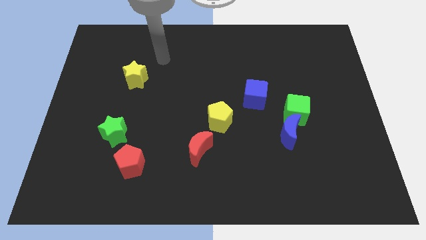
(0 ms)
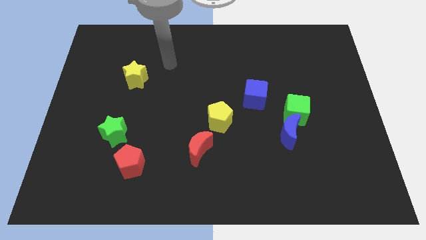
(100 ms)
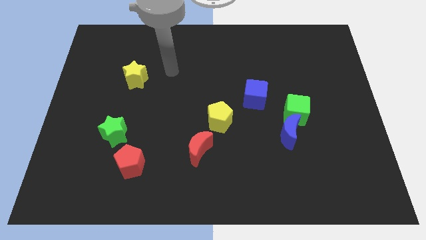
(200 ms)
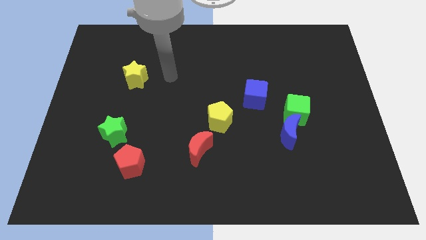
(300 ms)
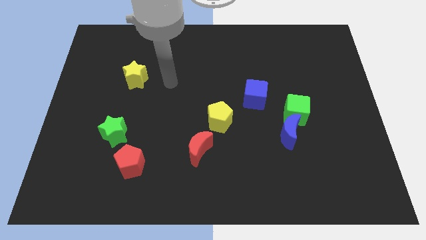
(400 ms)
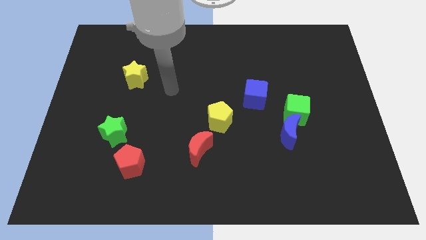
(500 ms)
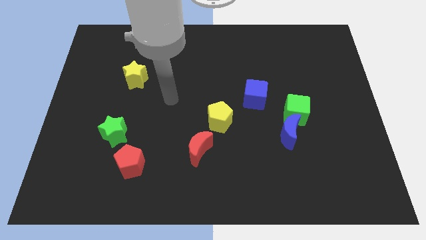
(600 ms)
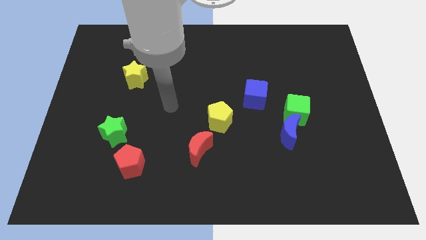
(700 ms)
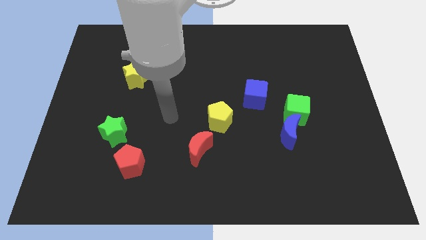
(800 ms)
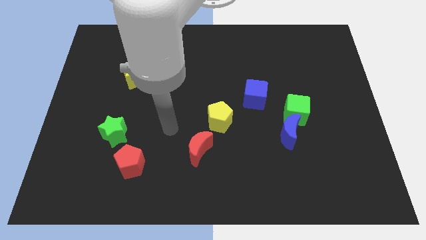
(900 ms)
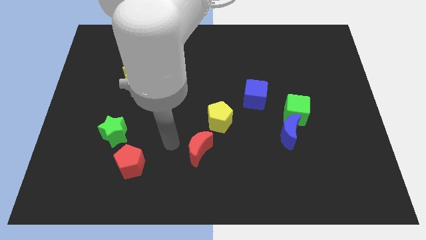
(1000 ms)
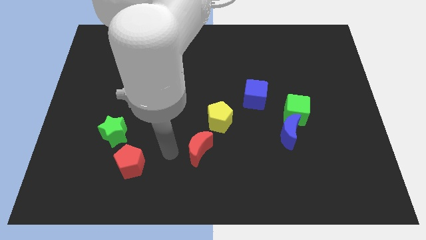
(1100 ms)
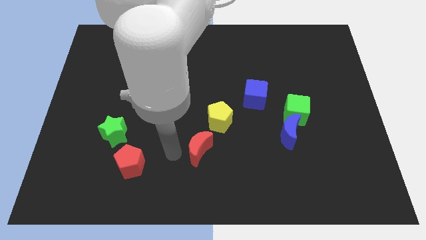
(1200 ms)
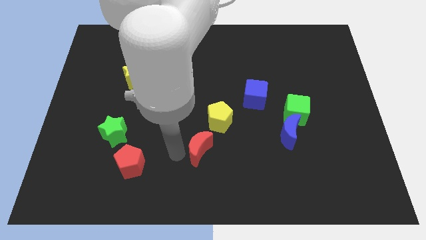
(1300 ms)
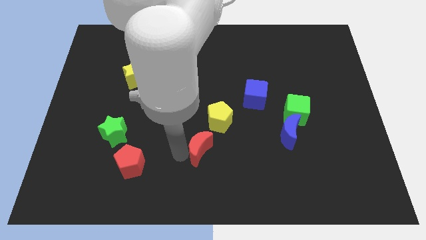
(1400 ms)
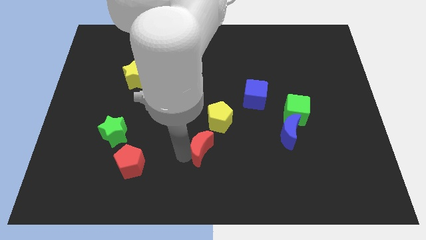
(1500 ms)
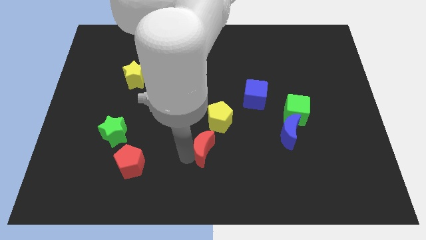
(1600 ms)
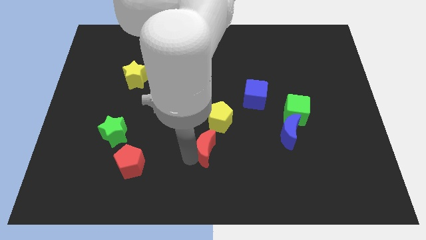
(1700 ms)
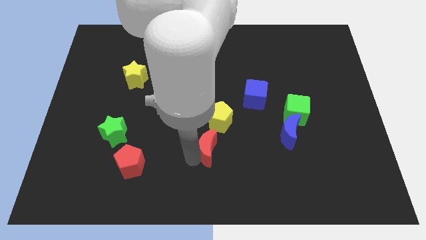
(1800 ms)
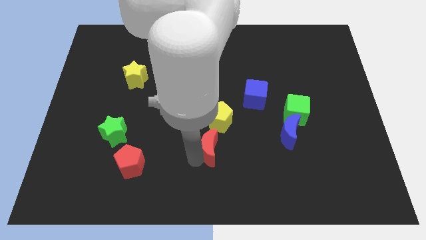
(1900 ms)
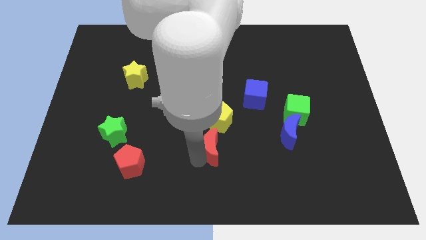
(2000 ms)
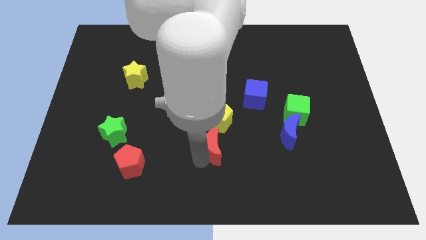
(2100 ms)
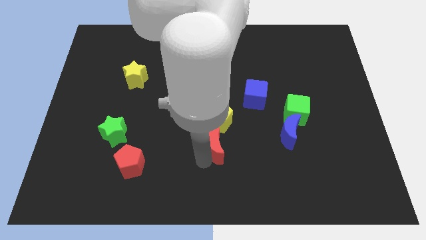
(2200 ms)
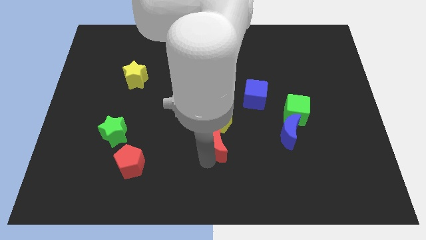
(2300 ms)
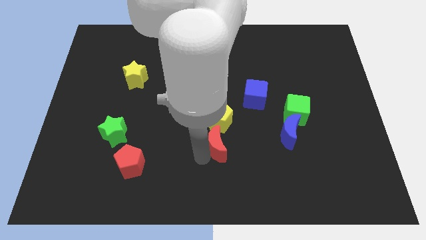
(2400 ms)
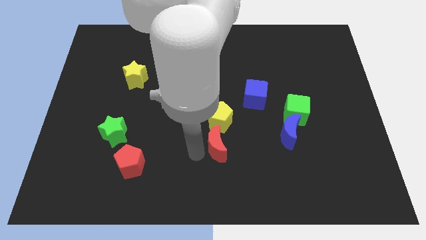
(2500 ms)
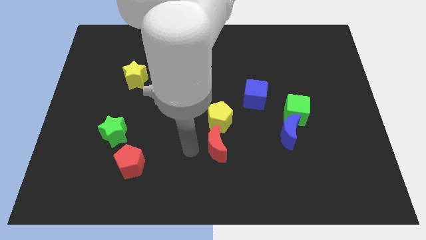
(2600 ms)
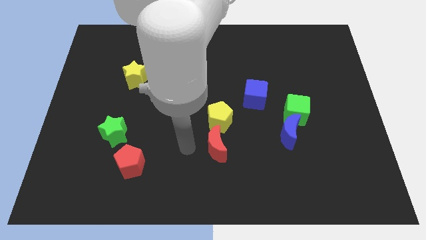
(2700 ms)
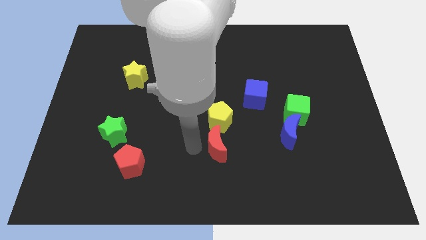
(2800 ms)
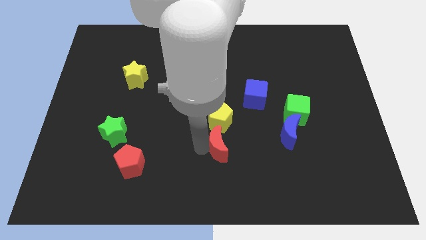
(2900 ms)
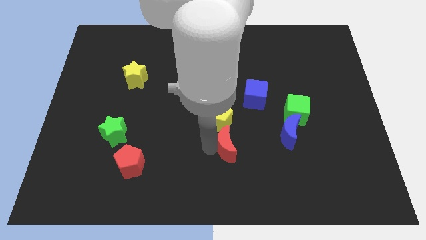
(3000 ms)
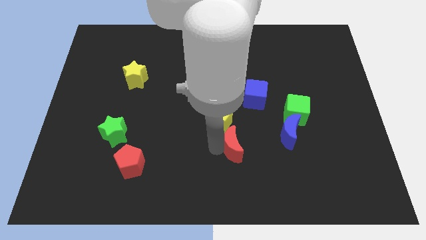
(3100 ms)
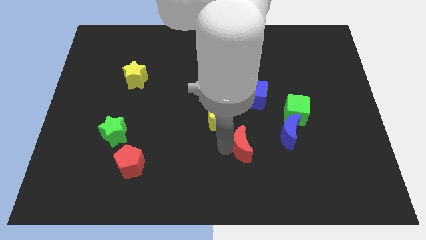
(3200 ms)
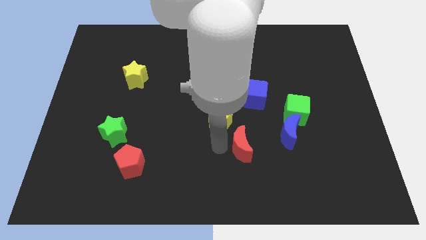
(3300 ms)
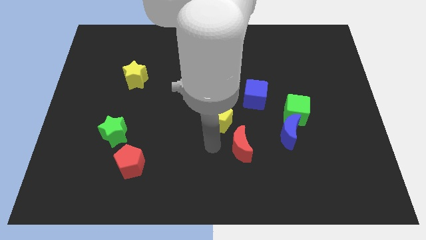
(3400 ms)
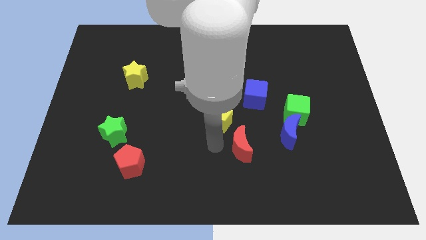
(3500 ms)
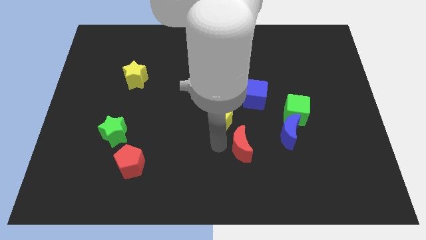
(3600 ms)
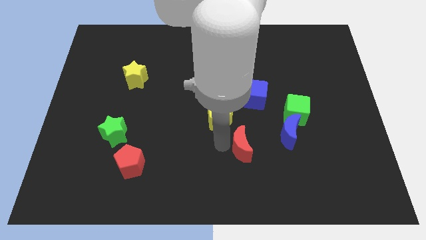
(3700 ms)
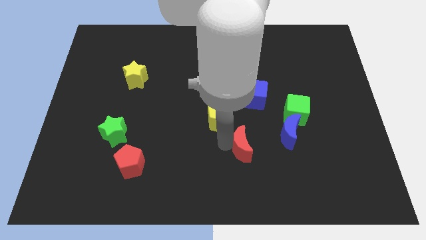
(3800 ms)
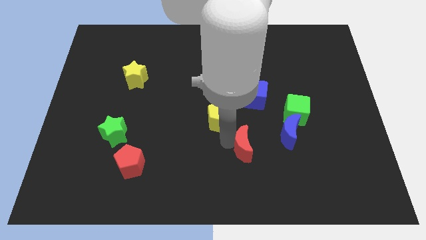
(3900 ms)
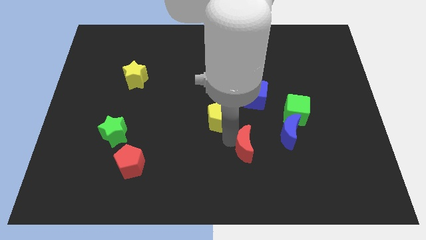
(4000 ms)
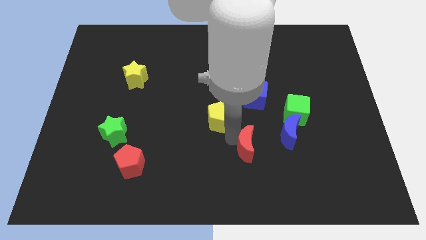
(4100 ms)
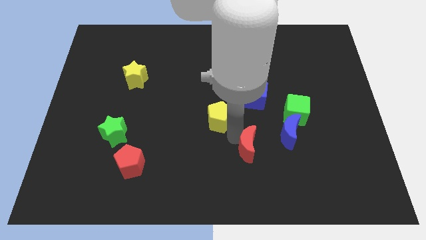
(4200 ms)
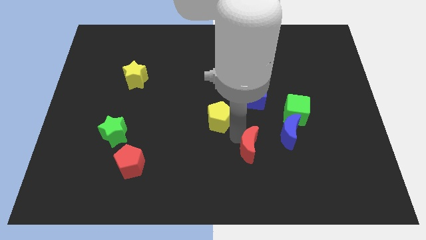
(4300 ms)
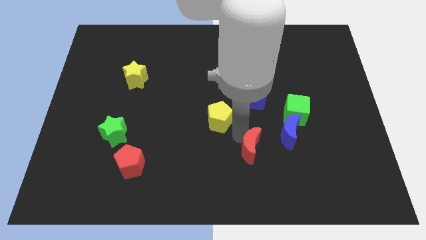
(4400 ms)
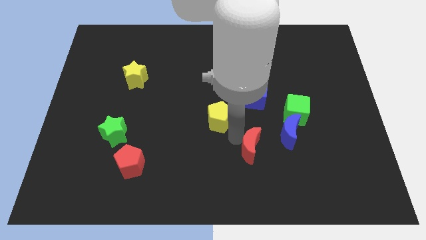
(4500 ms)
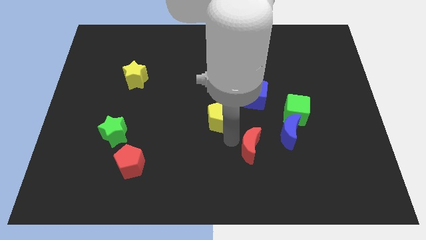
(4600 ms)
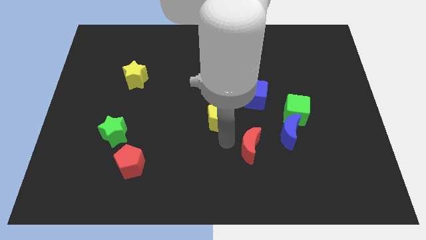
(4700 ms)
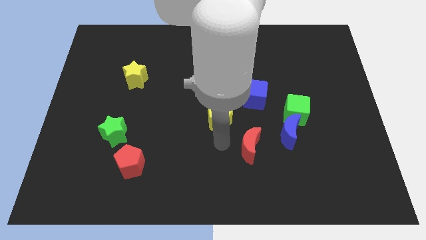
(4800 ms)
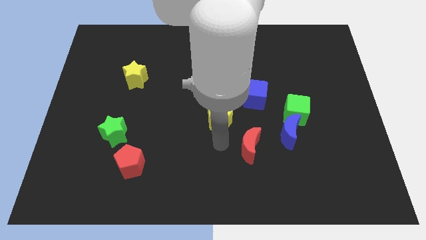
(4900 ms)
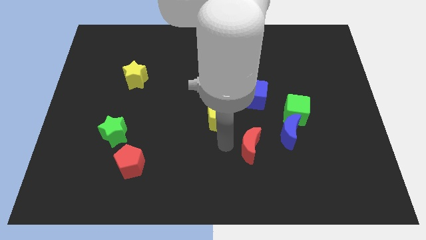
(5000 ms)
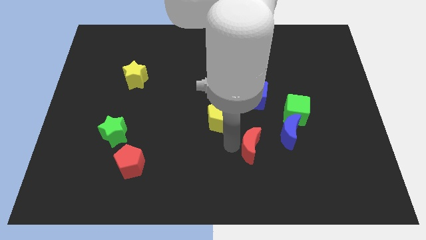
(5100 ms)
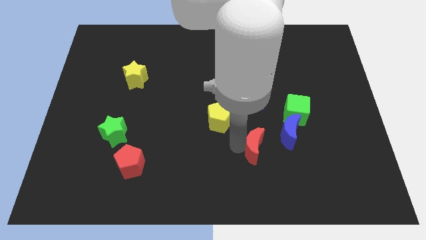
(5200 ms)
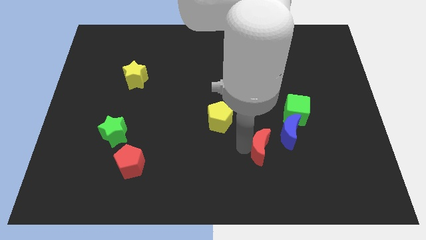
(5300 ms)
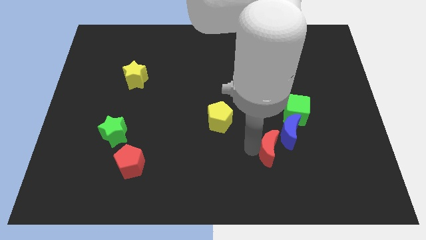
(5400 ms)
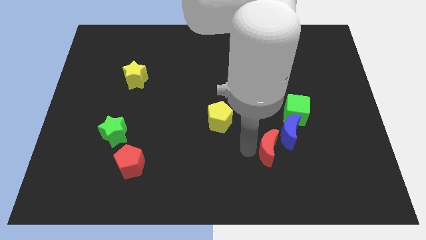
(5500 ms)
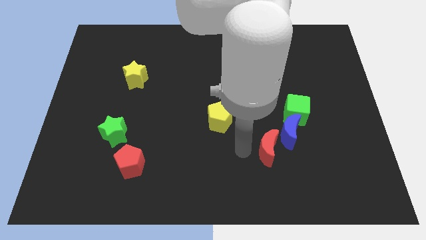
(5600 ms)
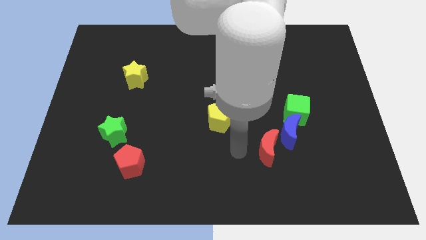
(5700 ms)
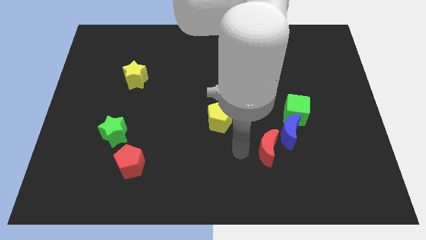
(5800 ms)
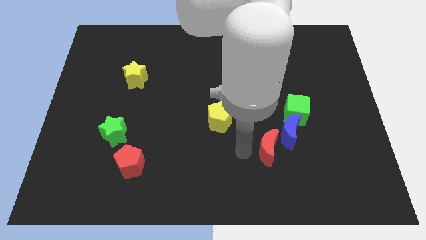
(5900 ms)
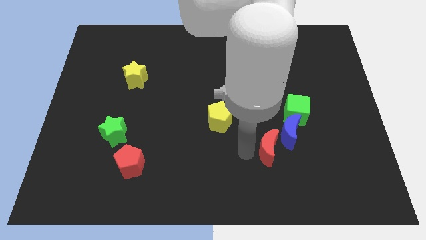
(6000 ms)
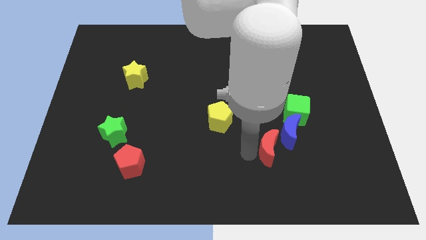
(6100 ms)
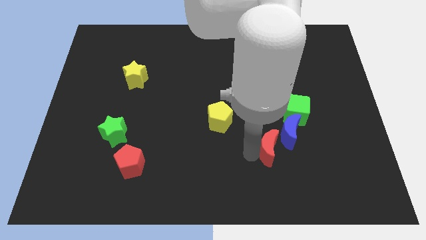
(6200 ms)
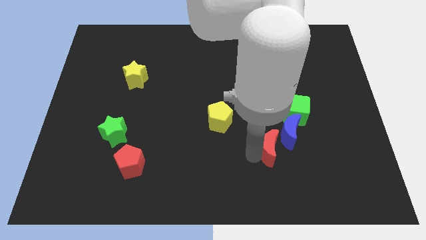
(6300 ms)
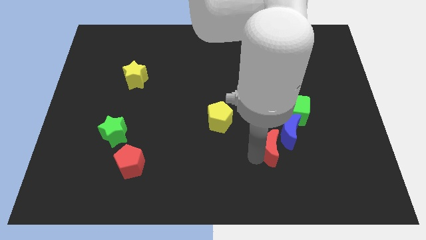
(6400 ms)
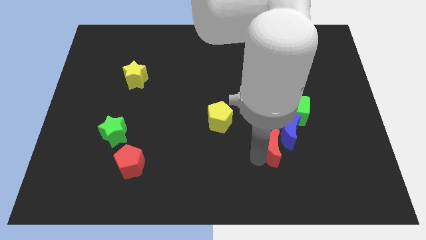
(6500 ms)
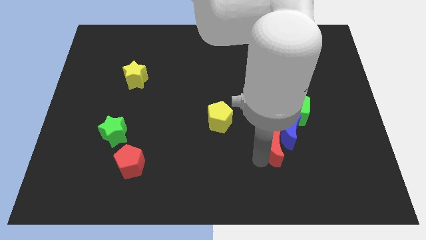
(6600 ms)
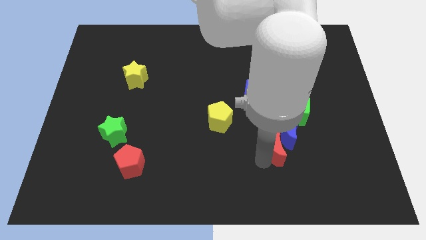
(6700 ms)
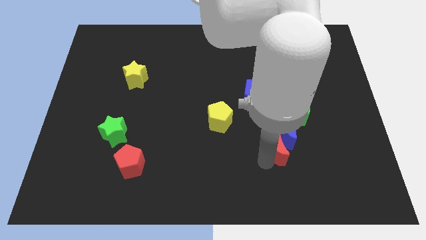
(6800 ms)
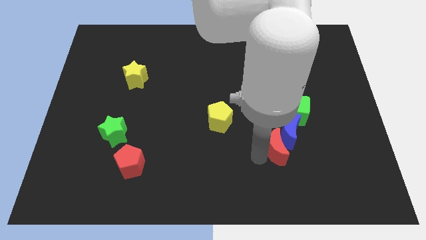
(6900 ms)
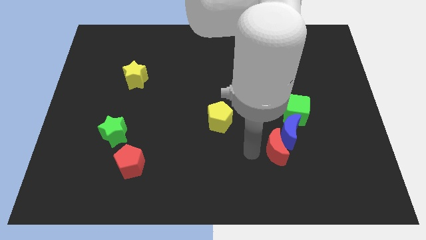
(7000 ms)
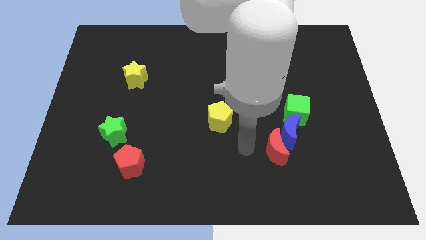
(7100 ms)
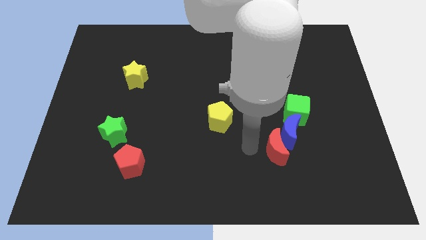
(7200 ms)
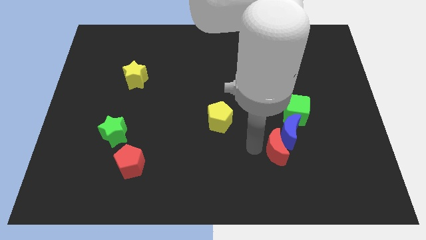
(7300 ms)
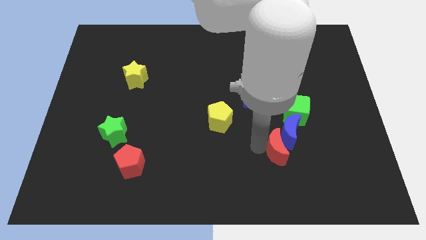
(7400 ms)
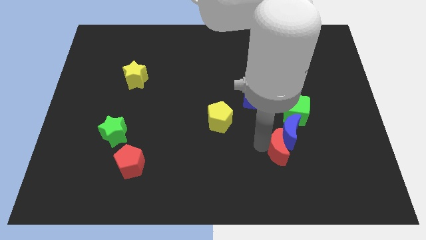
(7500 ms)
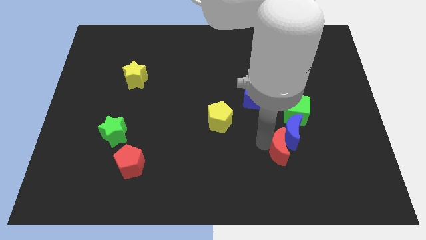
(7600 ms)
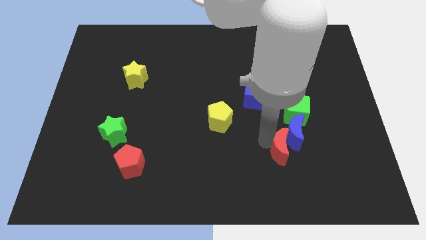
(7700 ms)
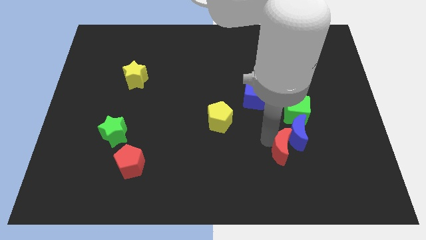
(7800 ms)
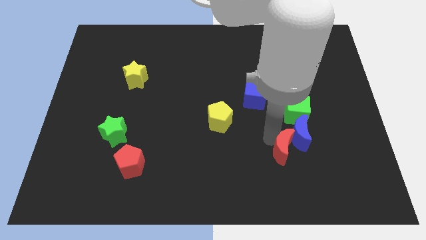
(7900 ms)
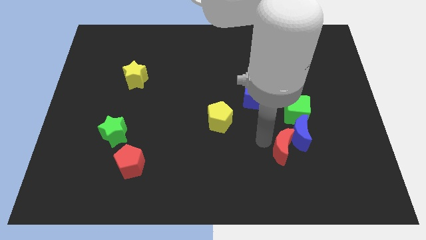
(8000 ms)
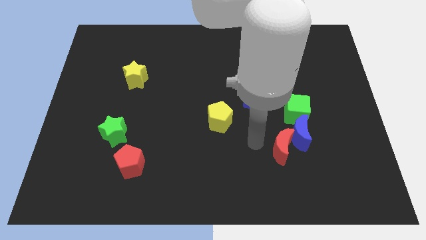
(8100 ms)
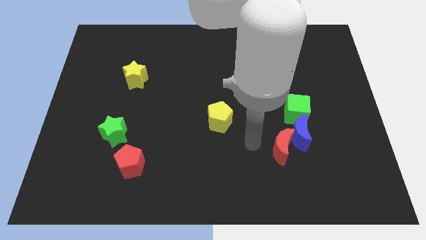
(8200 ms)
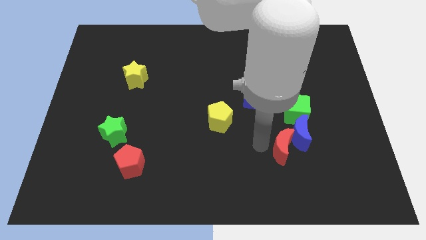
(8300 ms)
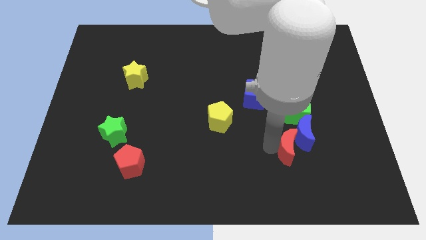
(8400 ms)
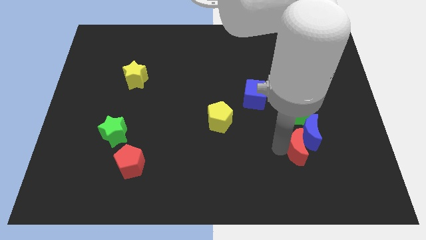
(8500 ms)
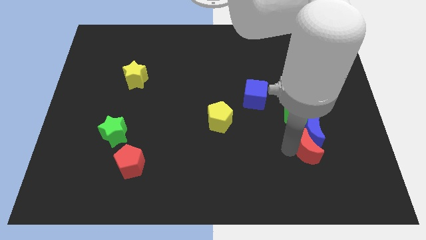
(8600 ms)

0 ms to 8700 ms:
push the red moon to the bottom right side of the blue moon
